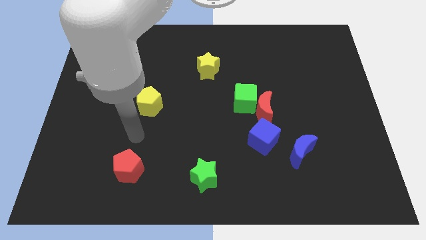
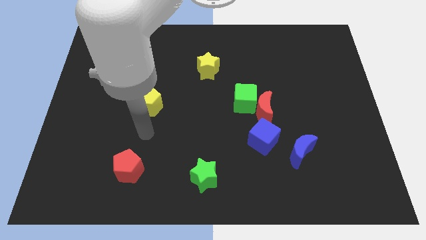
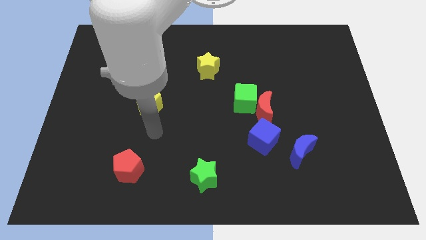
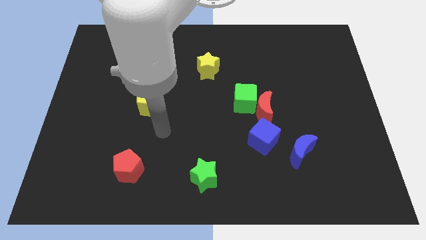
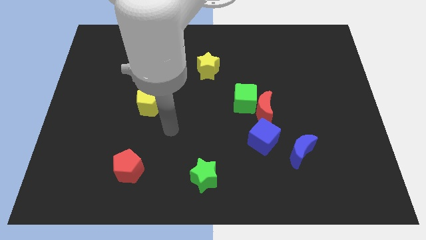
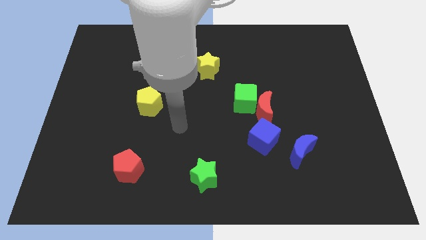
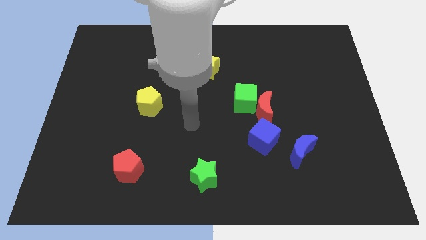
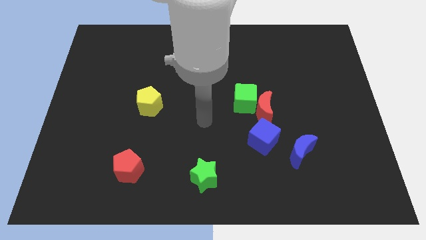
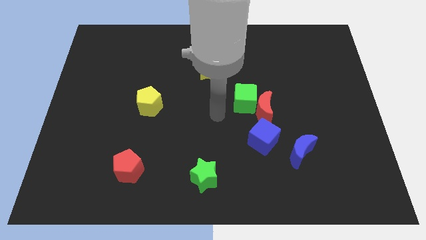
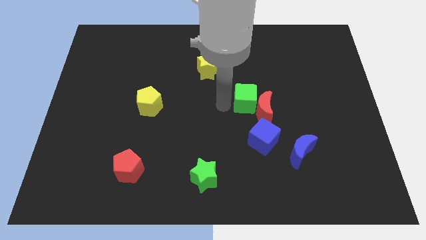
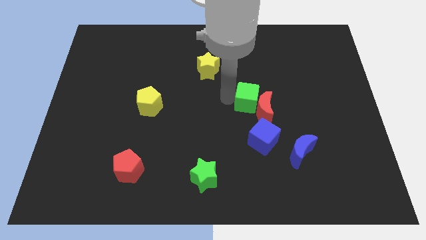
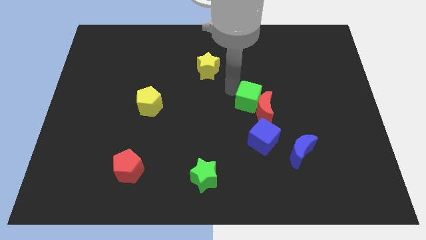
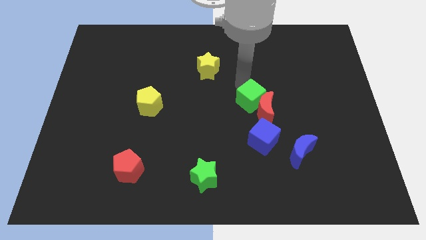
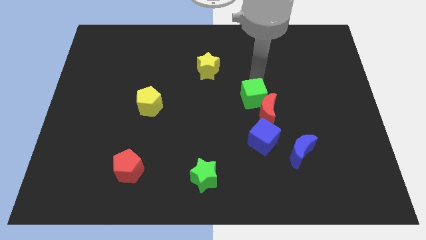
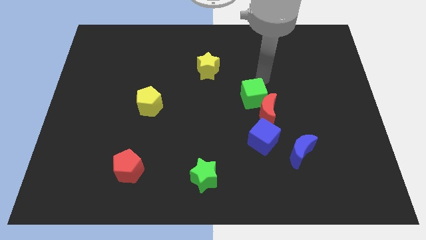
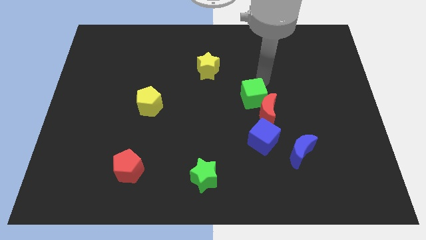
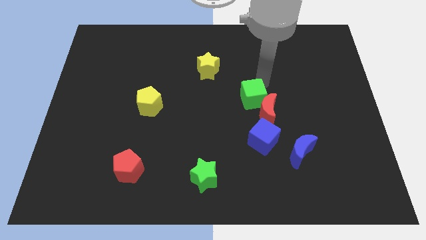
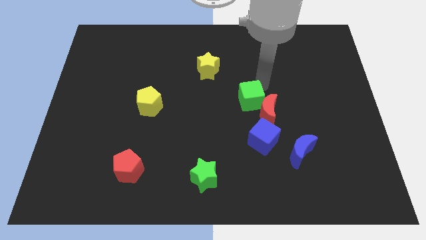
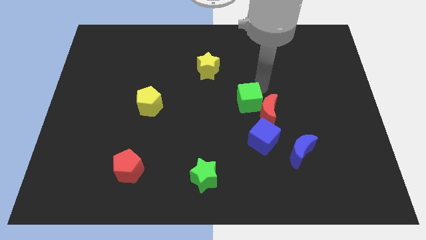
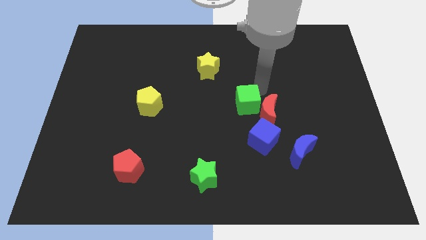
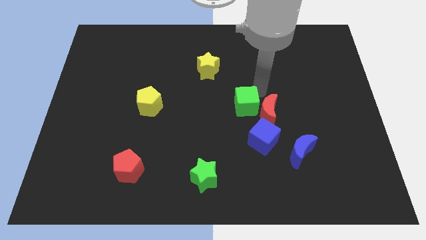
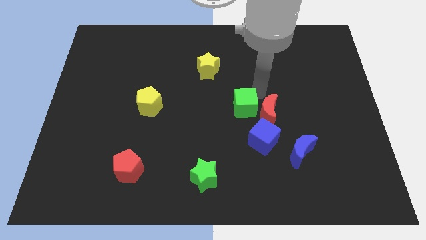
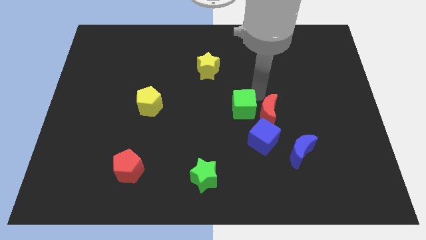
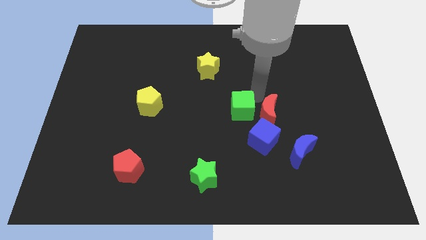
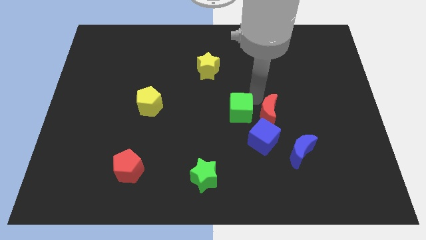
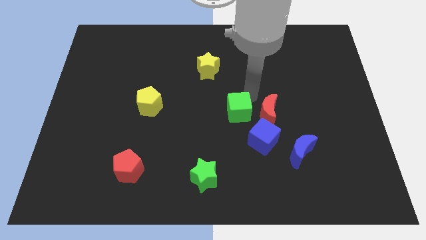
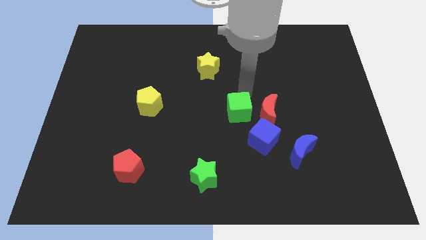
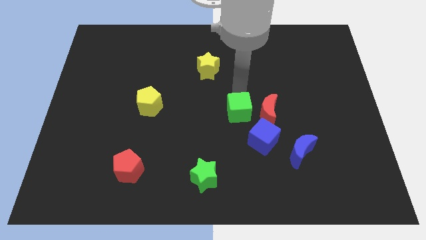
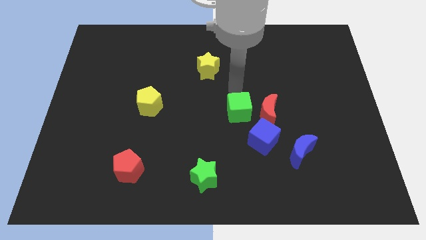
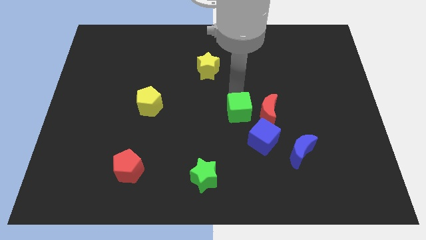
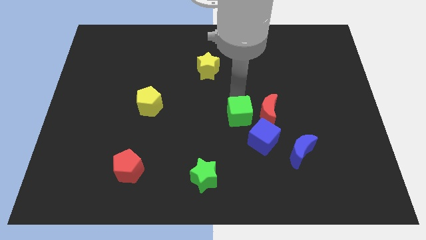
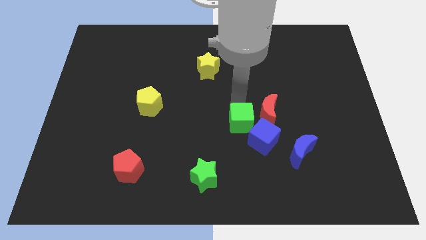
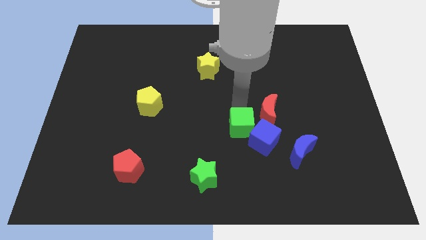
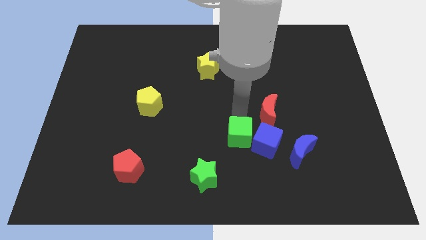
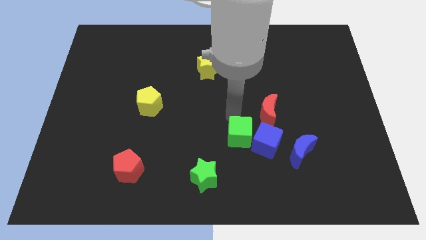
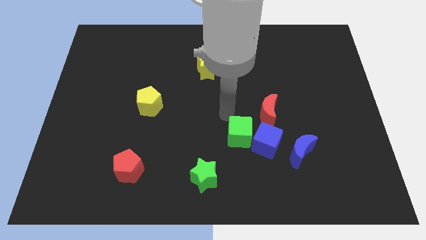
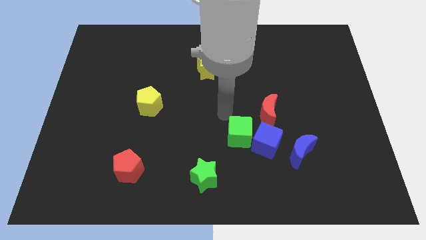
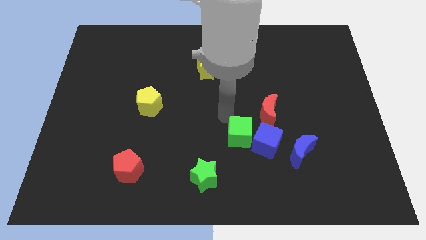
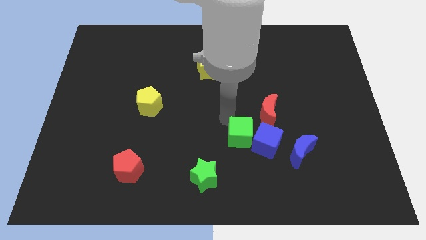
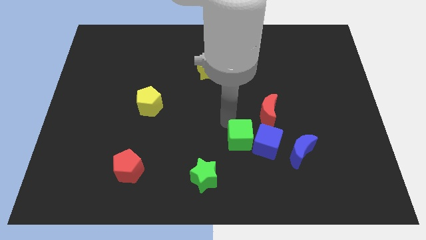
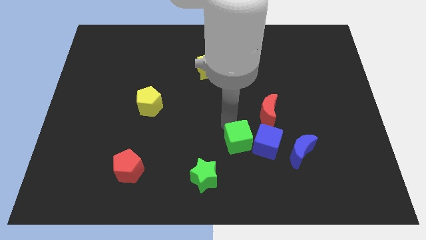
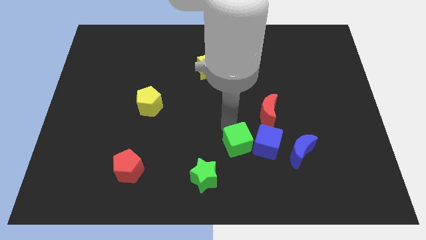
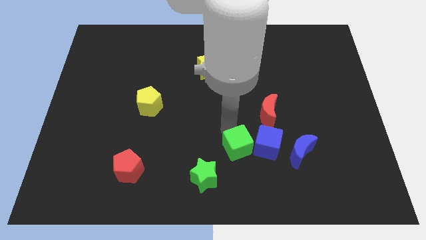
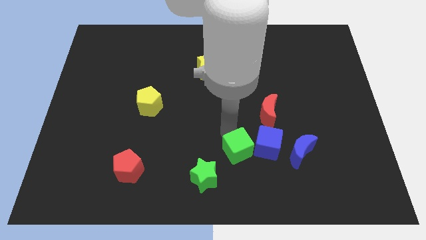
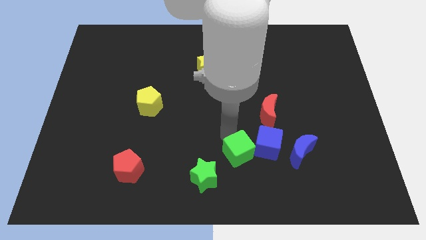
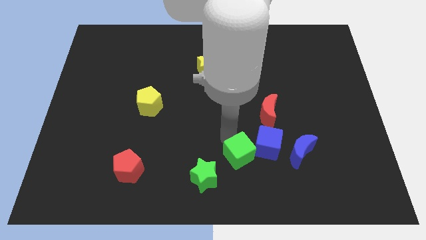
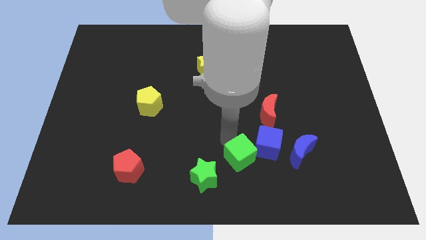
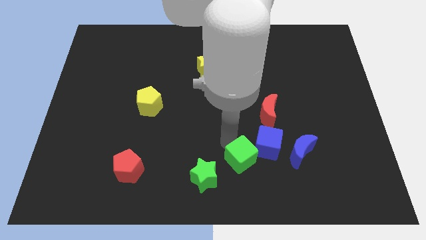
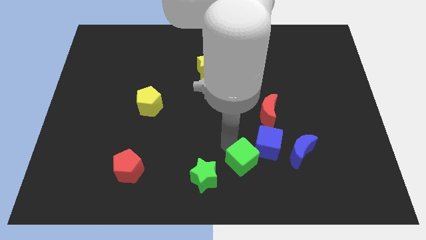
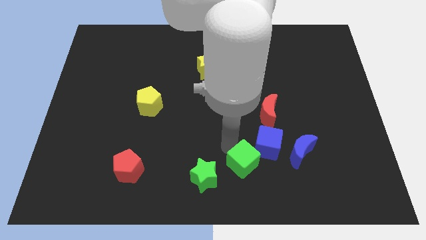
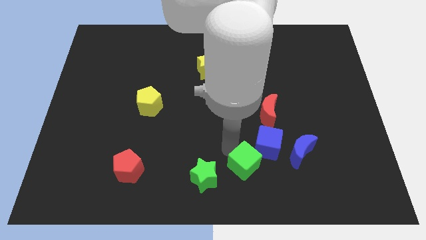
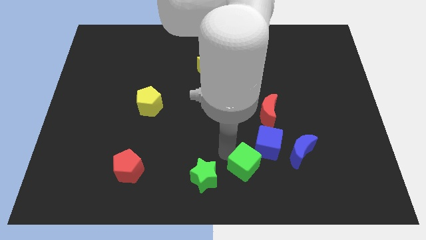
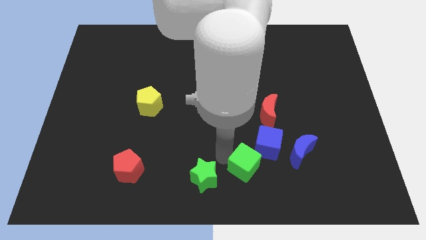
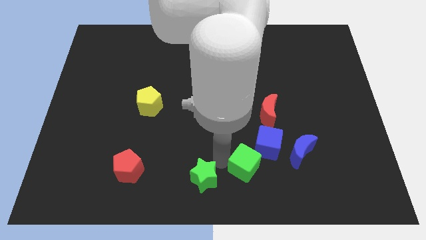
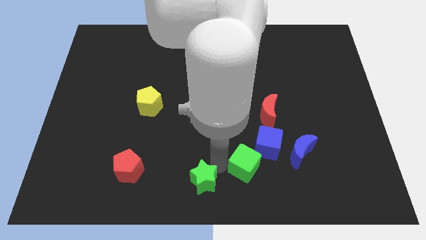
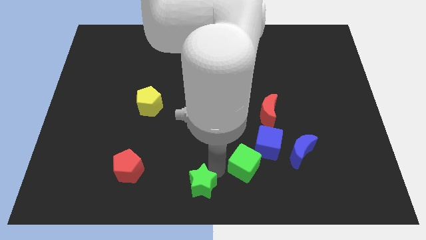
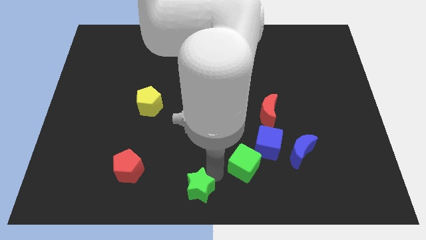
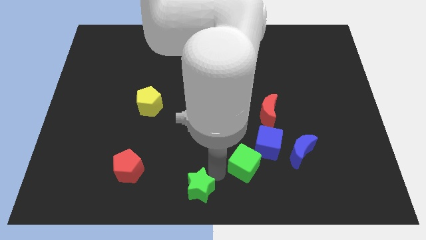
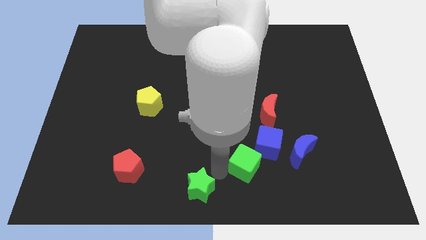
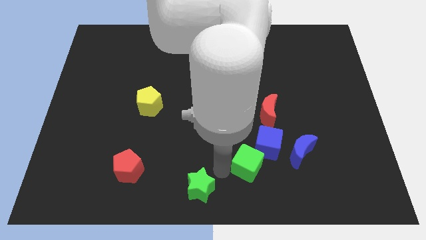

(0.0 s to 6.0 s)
put the green cube below the blue cube

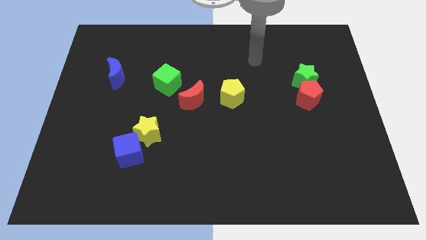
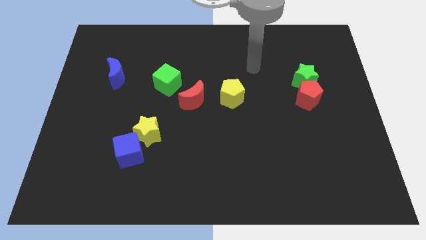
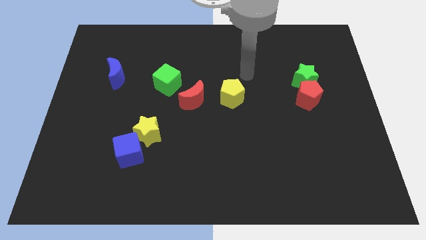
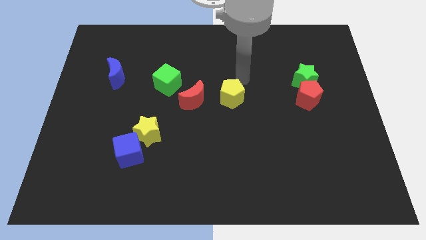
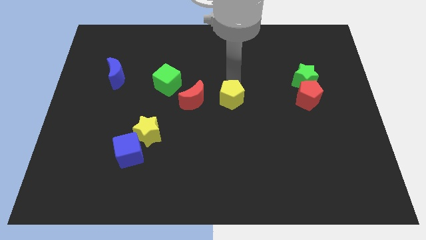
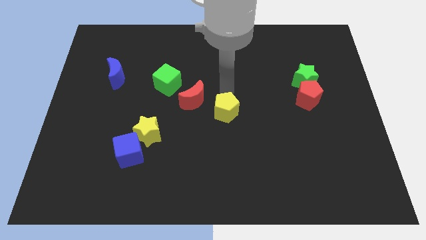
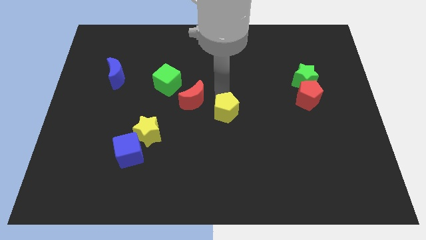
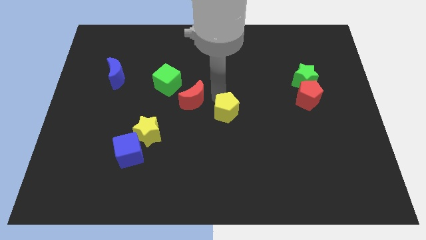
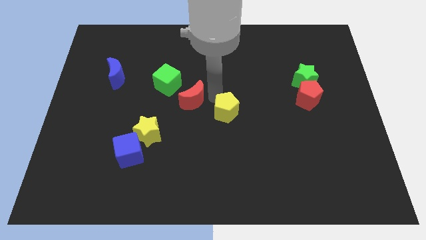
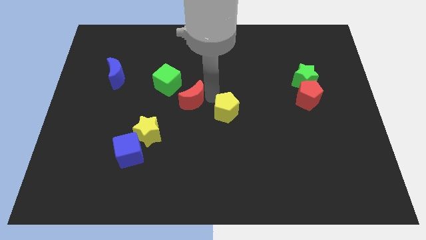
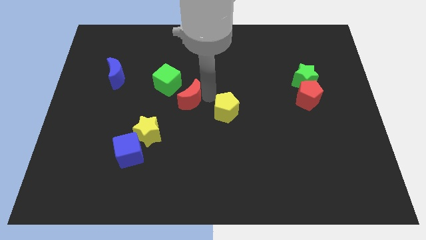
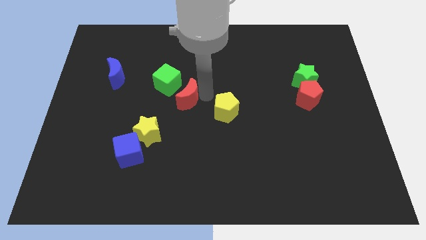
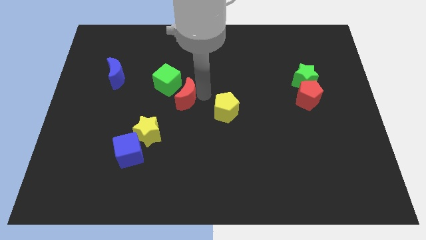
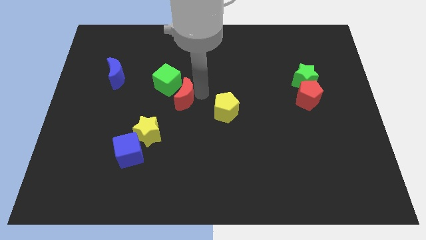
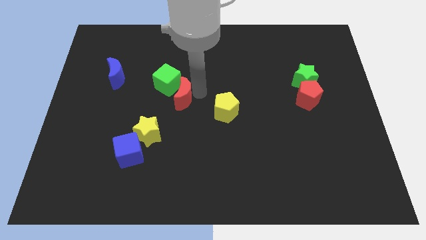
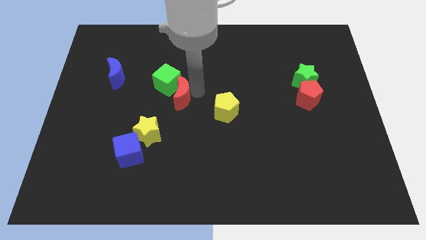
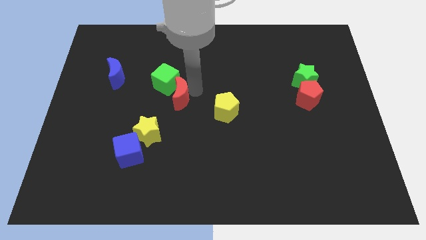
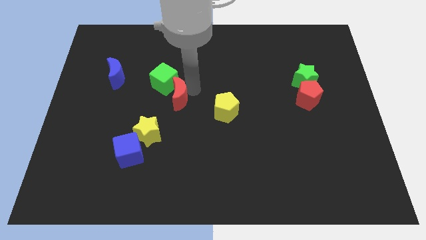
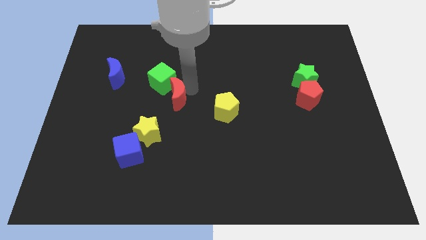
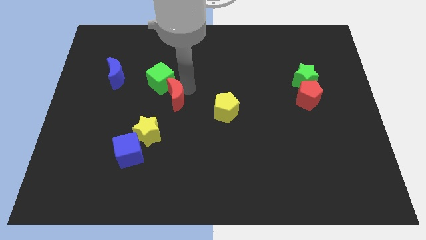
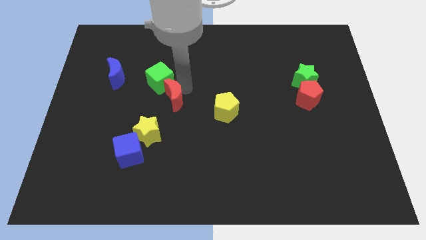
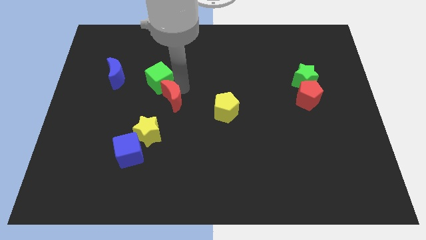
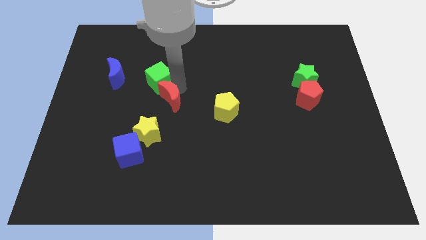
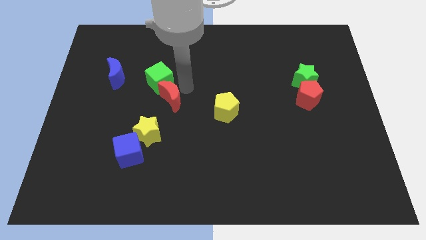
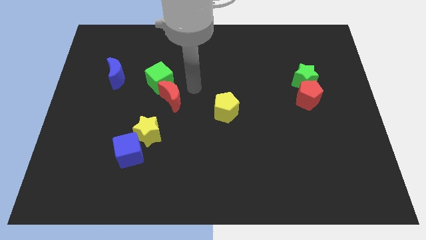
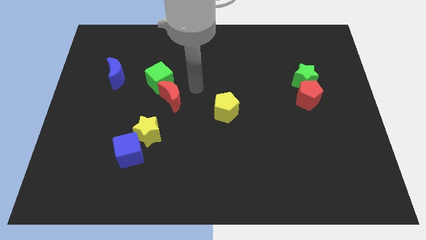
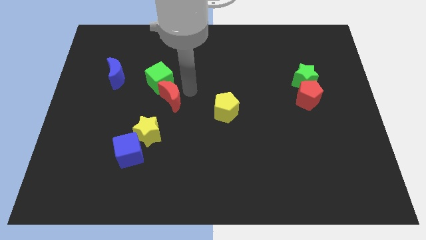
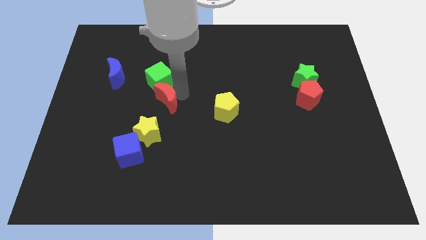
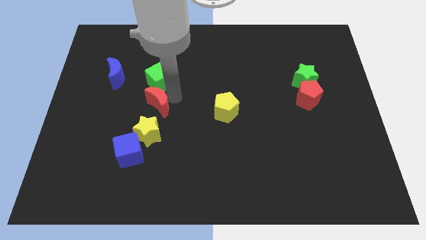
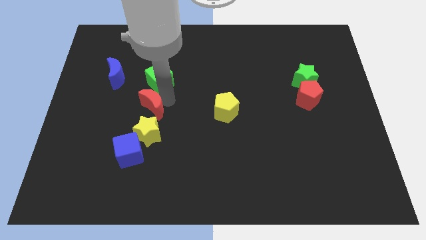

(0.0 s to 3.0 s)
put the red moon to the top of the blue cube
